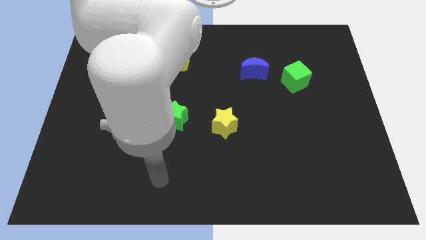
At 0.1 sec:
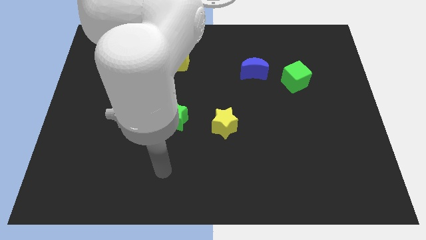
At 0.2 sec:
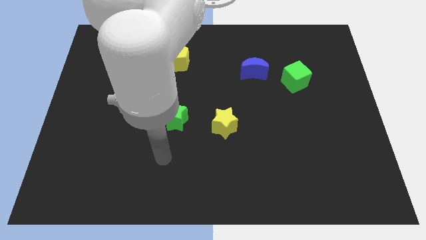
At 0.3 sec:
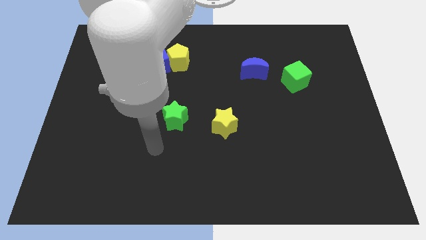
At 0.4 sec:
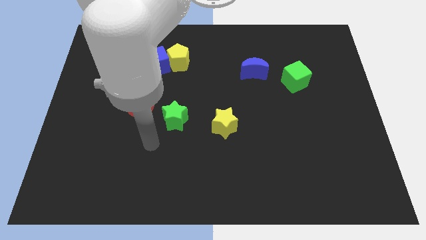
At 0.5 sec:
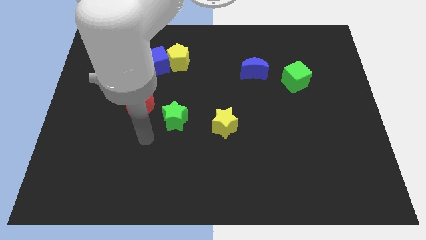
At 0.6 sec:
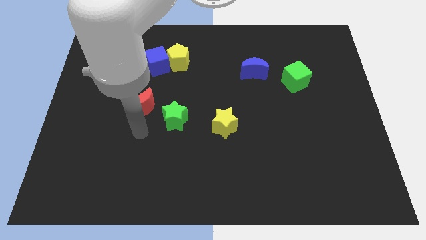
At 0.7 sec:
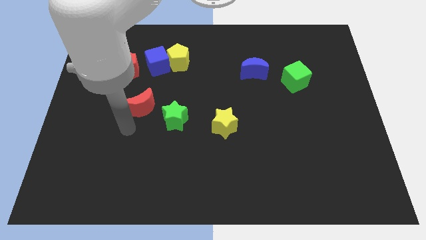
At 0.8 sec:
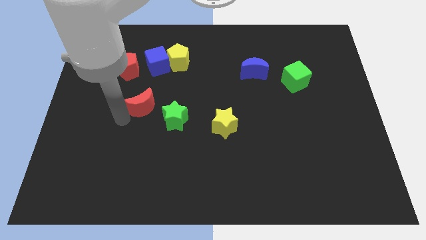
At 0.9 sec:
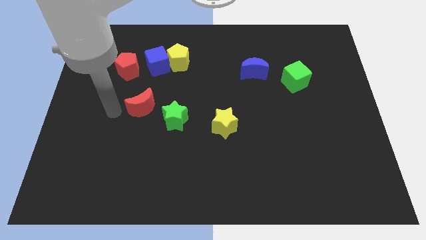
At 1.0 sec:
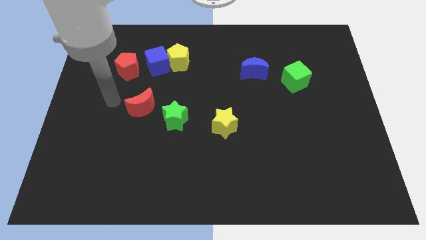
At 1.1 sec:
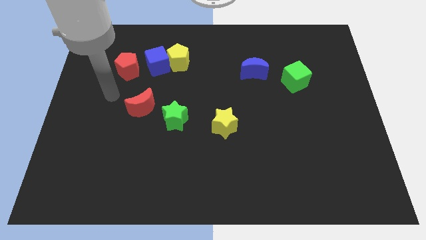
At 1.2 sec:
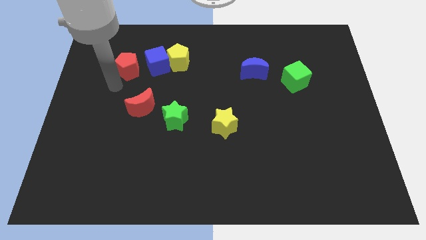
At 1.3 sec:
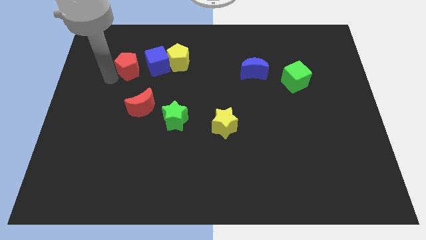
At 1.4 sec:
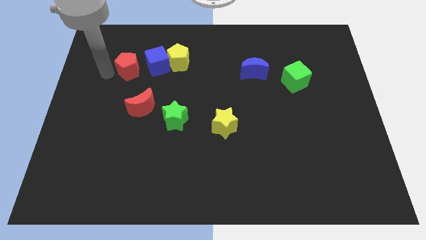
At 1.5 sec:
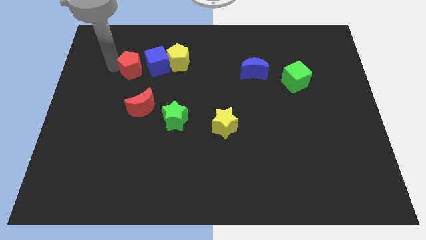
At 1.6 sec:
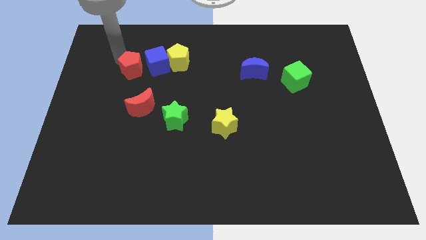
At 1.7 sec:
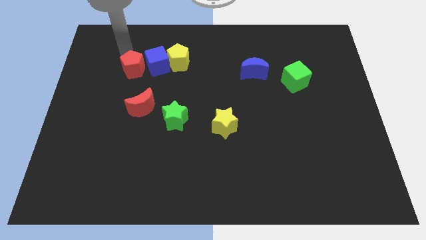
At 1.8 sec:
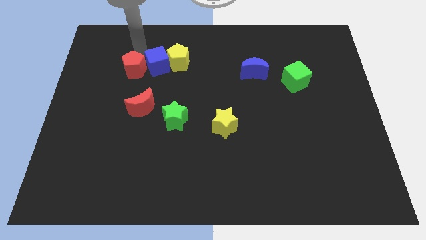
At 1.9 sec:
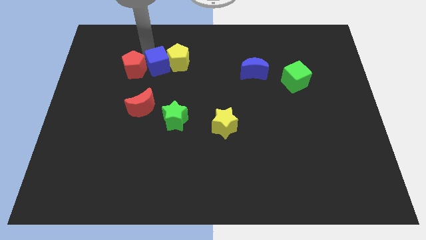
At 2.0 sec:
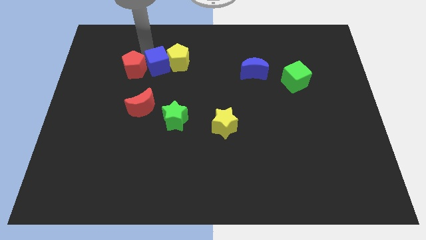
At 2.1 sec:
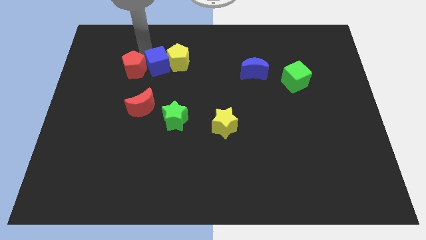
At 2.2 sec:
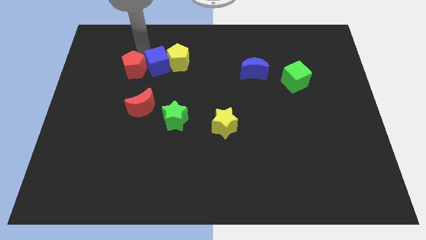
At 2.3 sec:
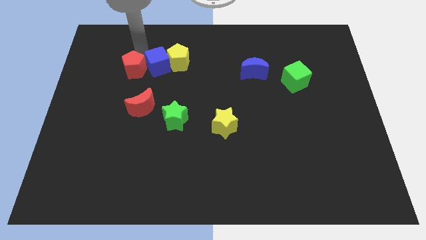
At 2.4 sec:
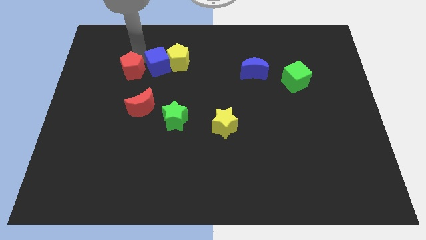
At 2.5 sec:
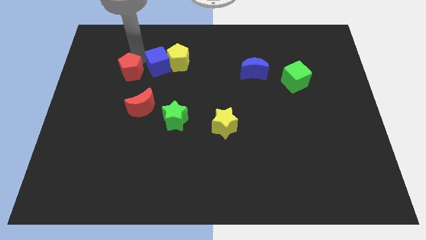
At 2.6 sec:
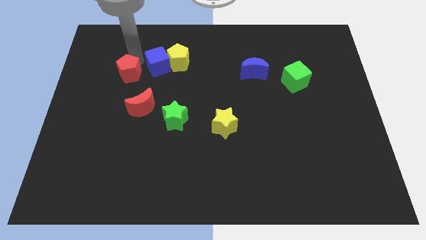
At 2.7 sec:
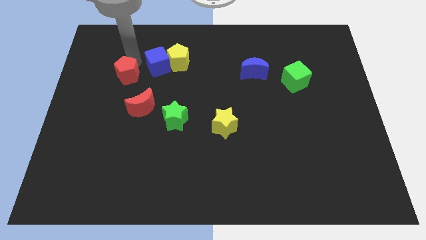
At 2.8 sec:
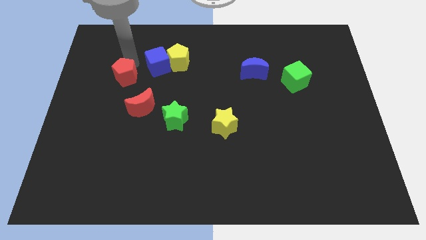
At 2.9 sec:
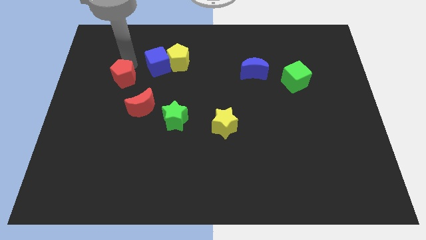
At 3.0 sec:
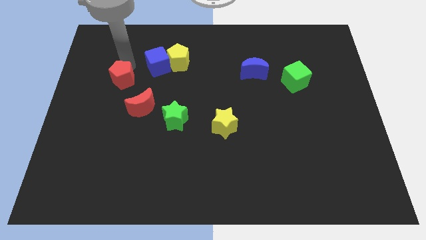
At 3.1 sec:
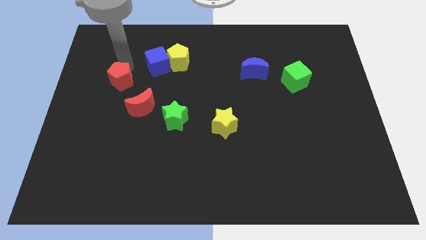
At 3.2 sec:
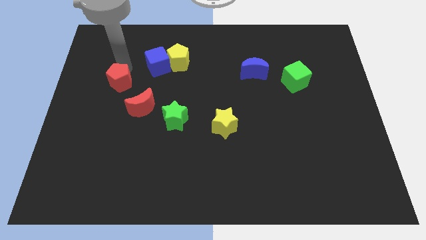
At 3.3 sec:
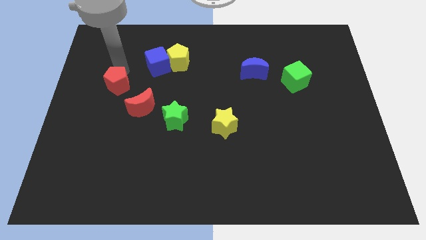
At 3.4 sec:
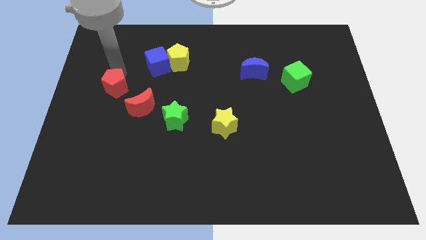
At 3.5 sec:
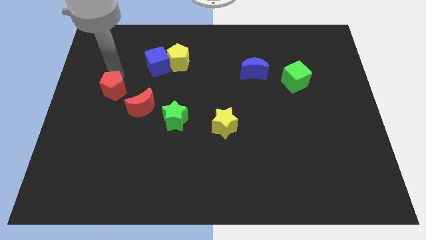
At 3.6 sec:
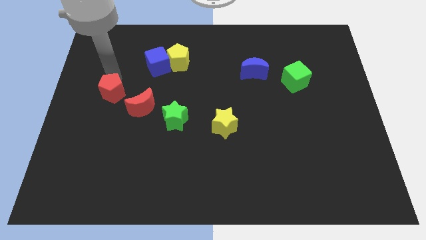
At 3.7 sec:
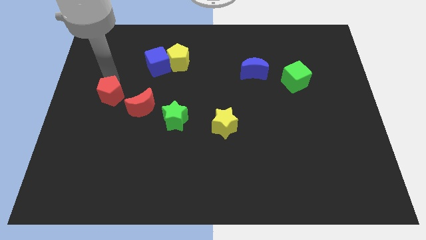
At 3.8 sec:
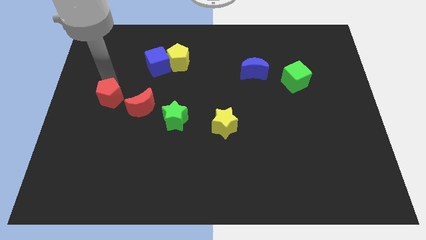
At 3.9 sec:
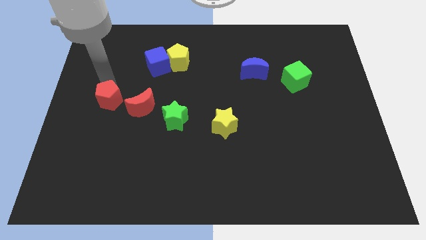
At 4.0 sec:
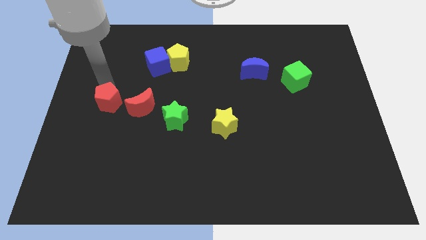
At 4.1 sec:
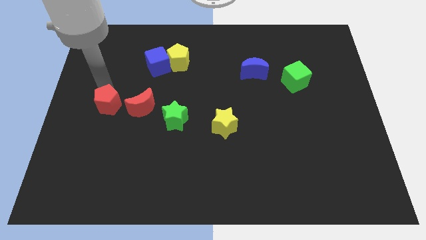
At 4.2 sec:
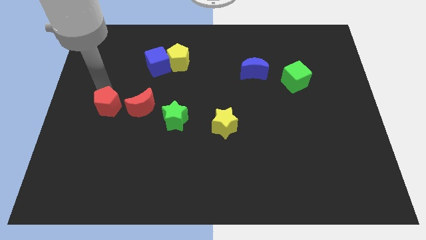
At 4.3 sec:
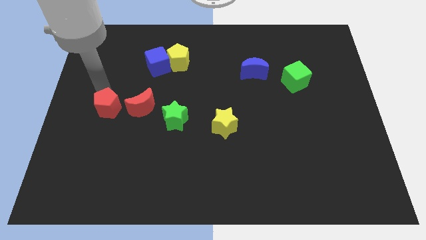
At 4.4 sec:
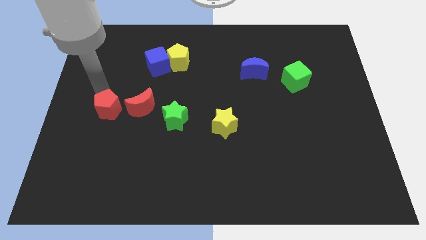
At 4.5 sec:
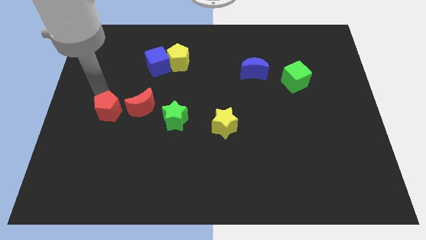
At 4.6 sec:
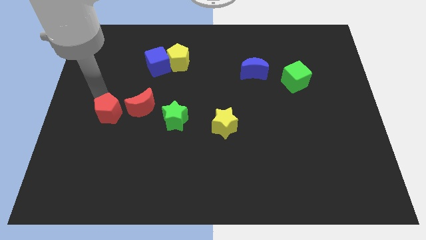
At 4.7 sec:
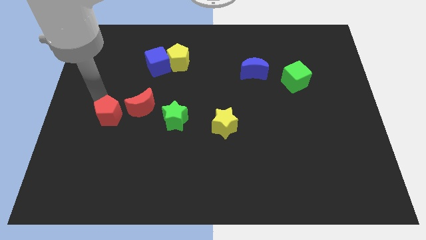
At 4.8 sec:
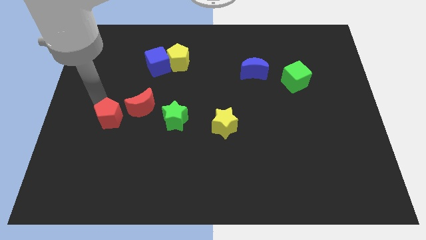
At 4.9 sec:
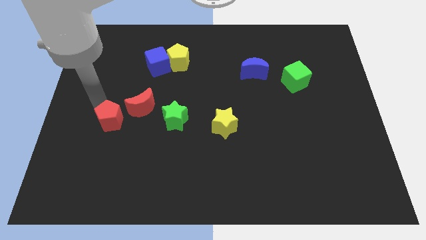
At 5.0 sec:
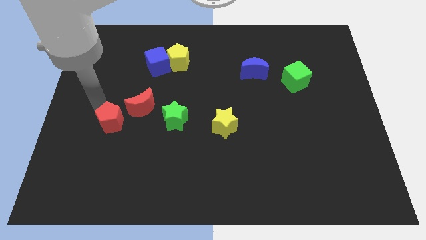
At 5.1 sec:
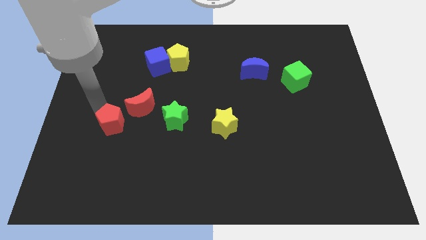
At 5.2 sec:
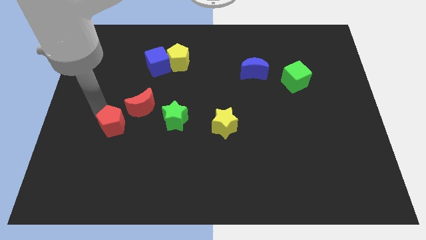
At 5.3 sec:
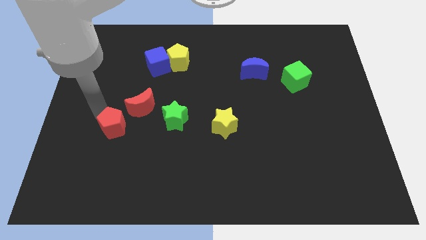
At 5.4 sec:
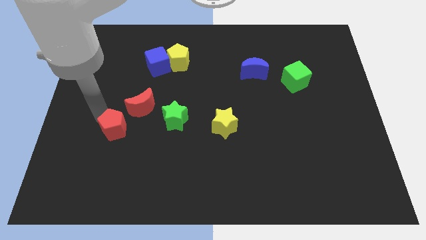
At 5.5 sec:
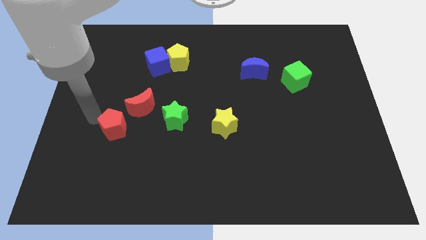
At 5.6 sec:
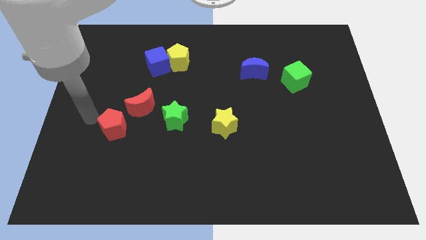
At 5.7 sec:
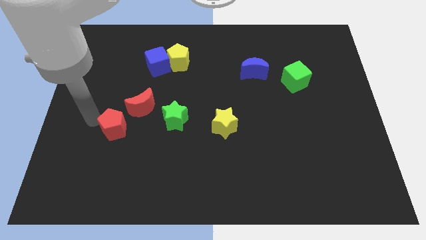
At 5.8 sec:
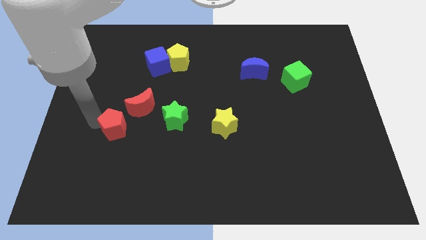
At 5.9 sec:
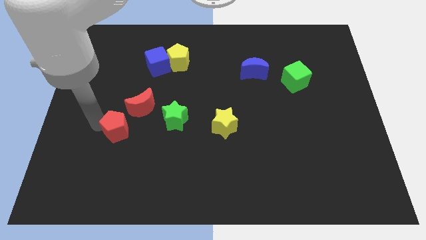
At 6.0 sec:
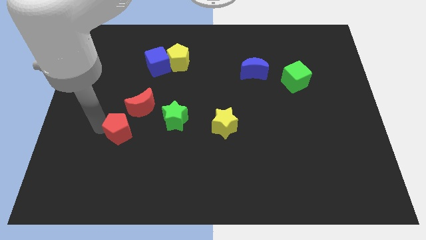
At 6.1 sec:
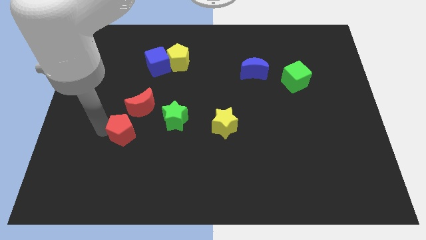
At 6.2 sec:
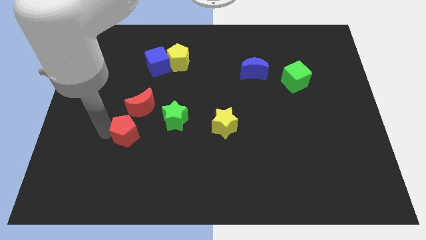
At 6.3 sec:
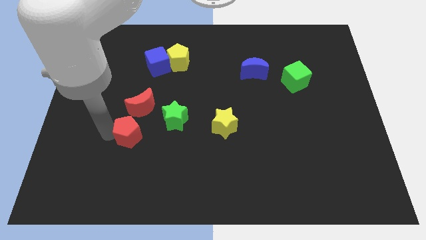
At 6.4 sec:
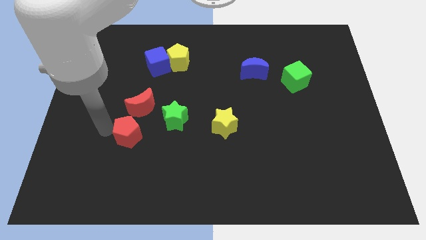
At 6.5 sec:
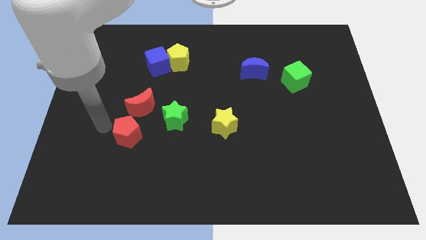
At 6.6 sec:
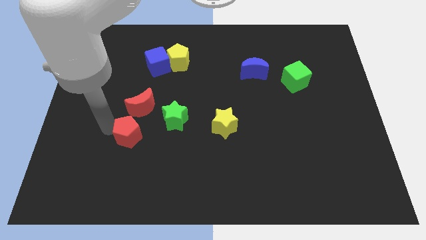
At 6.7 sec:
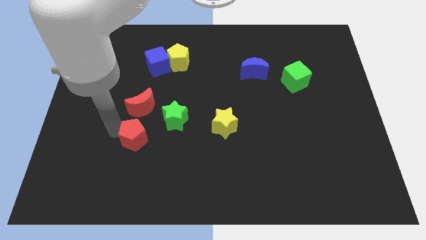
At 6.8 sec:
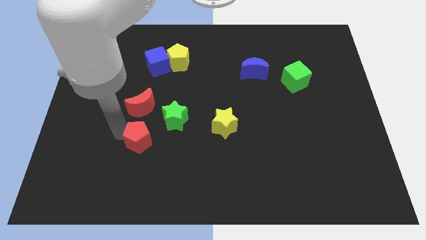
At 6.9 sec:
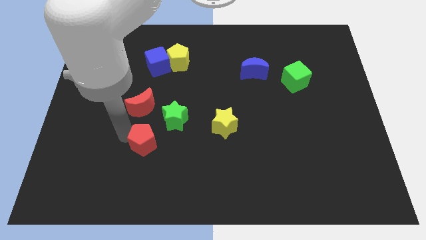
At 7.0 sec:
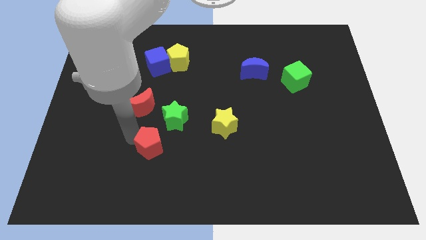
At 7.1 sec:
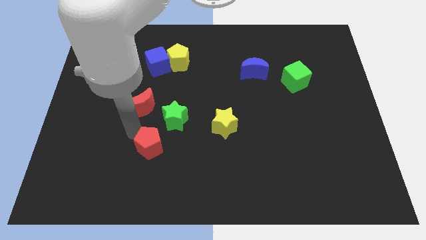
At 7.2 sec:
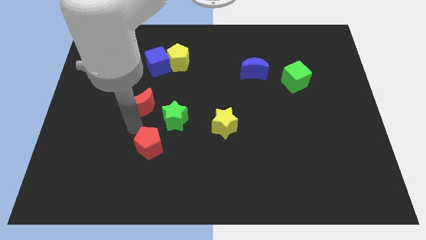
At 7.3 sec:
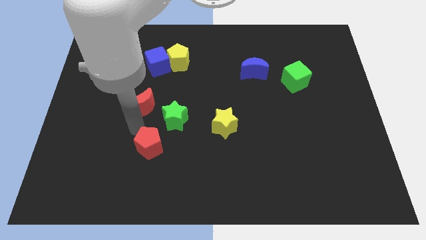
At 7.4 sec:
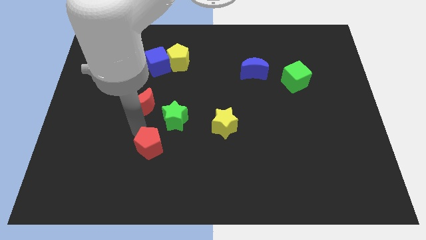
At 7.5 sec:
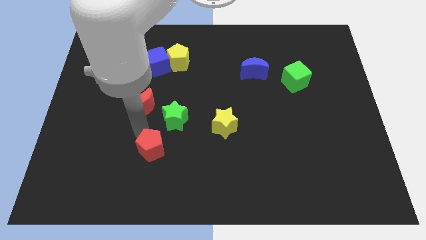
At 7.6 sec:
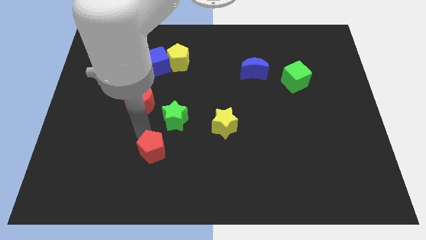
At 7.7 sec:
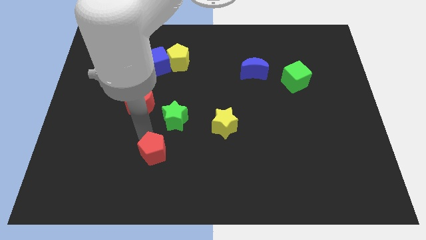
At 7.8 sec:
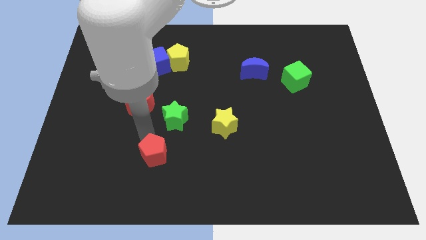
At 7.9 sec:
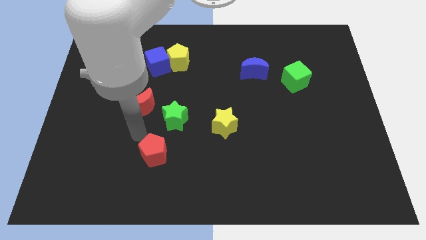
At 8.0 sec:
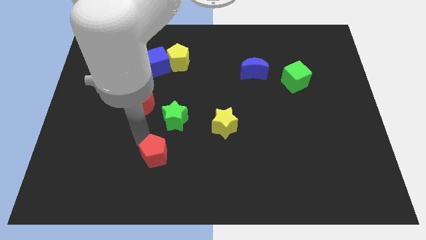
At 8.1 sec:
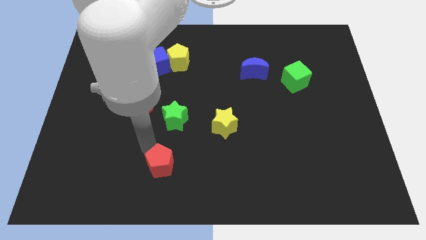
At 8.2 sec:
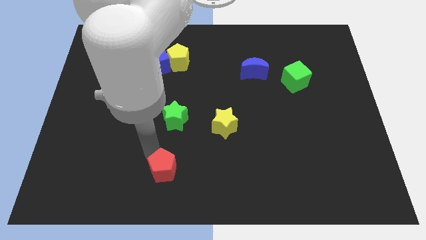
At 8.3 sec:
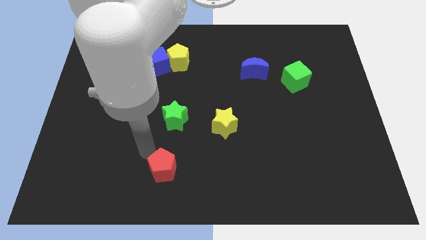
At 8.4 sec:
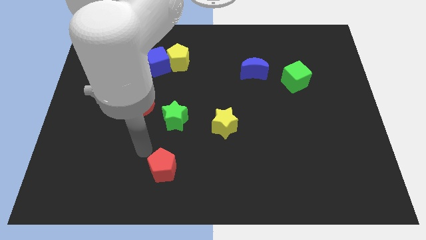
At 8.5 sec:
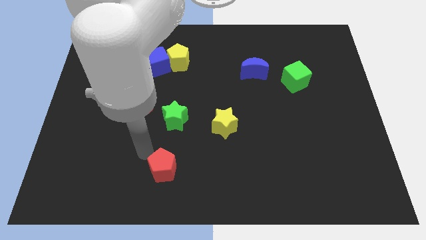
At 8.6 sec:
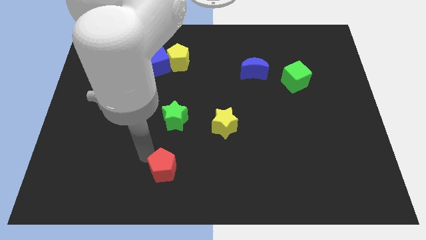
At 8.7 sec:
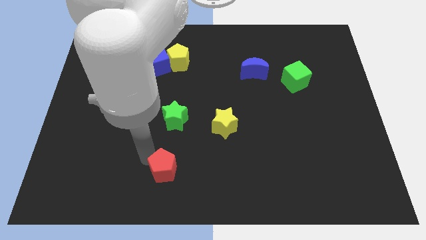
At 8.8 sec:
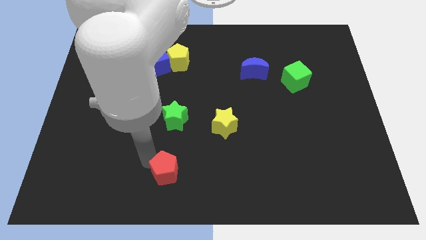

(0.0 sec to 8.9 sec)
push the red pentagon to the bottom
